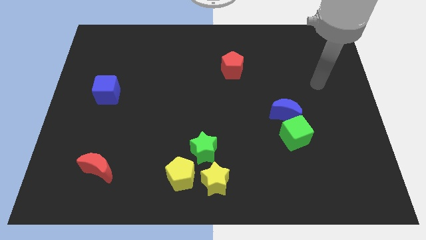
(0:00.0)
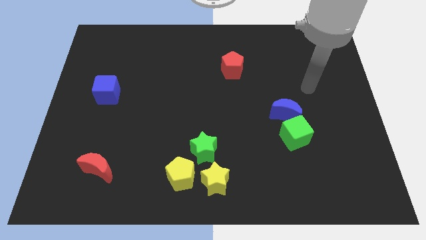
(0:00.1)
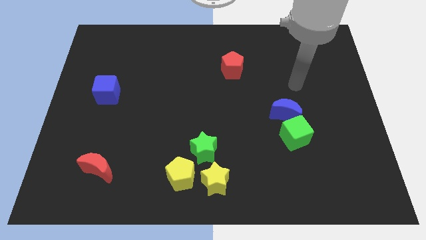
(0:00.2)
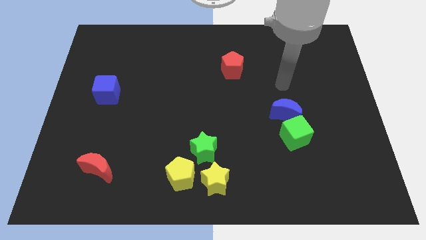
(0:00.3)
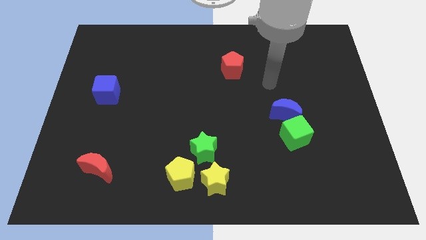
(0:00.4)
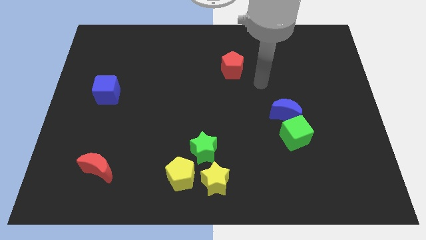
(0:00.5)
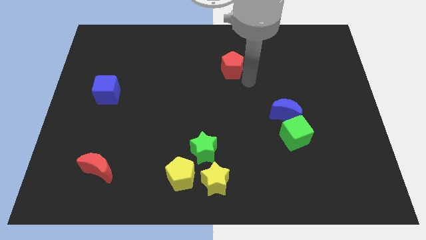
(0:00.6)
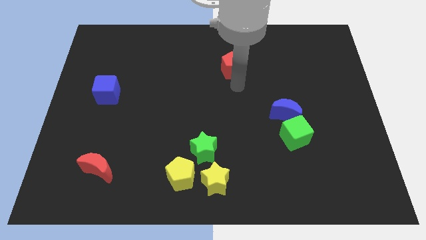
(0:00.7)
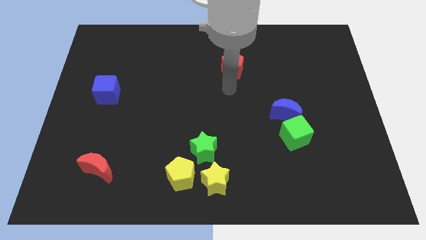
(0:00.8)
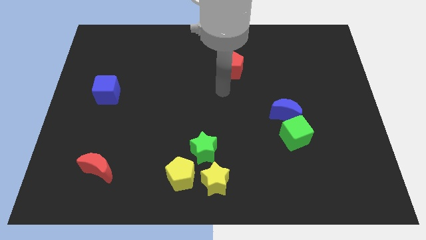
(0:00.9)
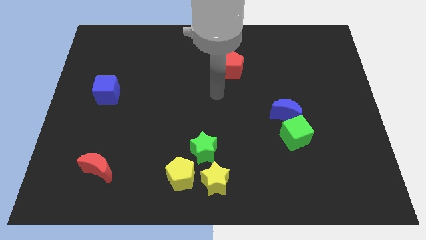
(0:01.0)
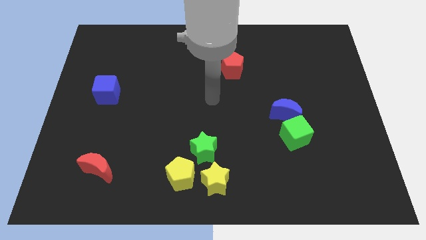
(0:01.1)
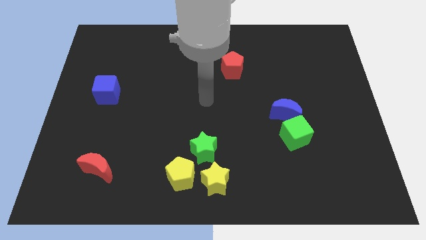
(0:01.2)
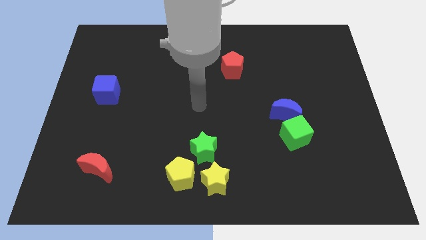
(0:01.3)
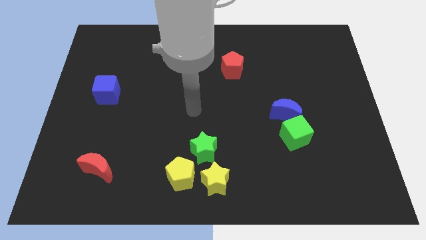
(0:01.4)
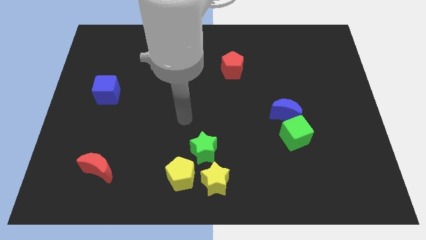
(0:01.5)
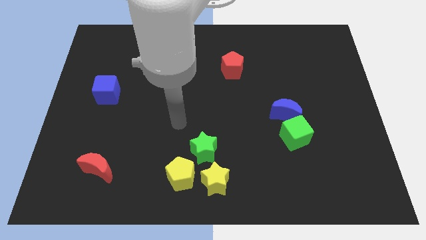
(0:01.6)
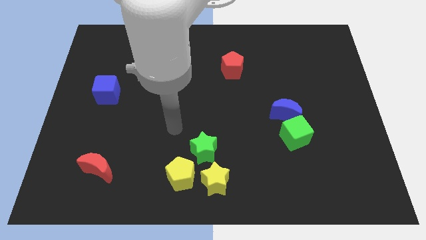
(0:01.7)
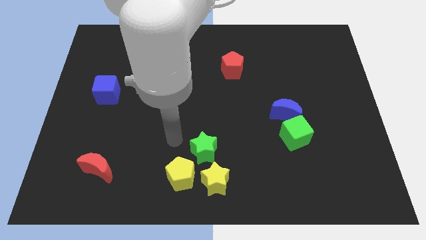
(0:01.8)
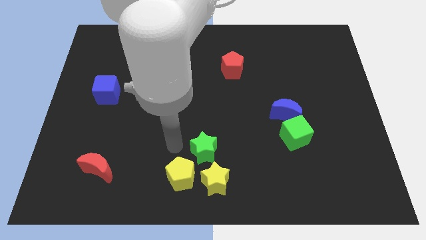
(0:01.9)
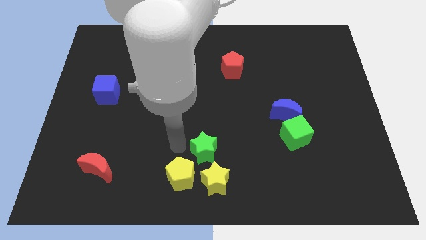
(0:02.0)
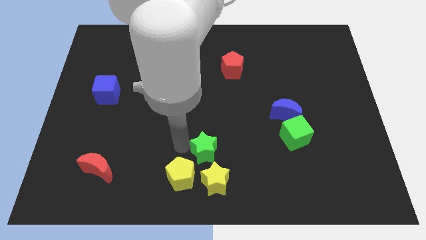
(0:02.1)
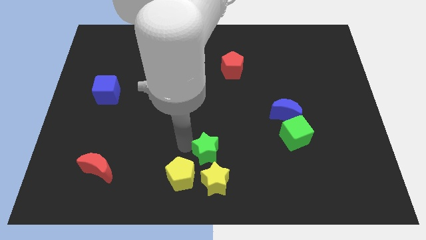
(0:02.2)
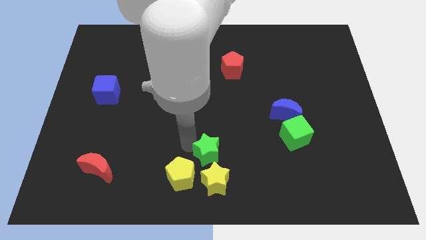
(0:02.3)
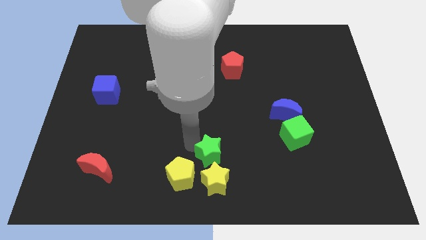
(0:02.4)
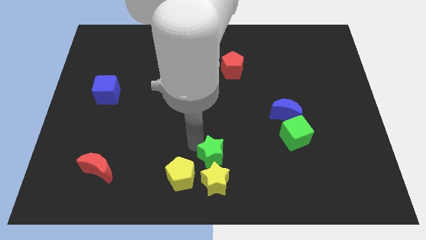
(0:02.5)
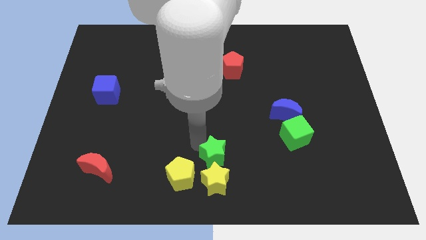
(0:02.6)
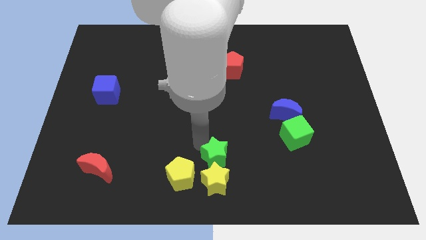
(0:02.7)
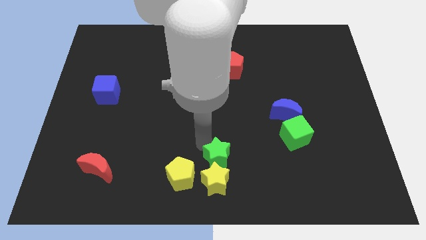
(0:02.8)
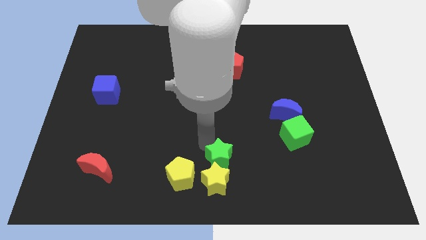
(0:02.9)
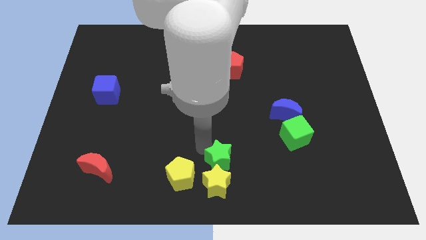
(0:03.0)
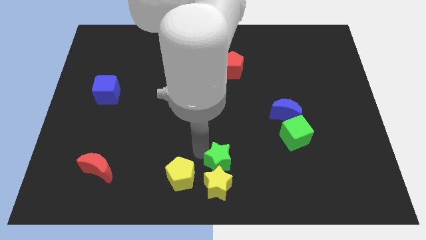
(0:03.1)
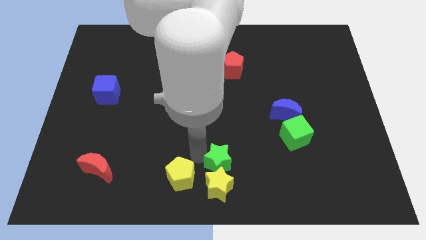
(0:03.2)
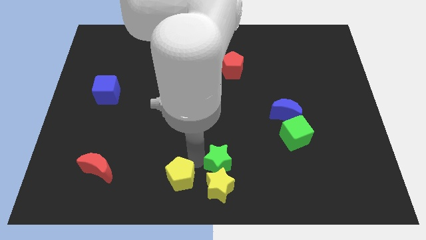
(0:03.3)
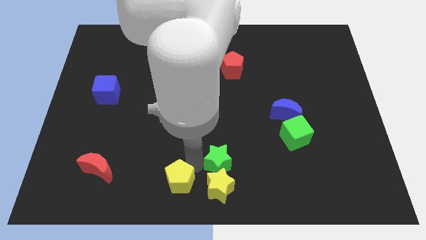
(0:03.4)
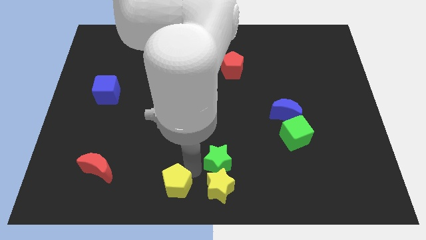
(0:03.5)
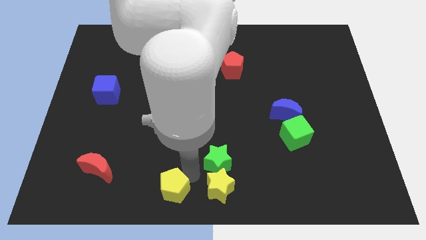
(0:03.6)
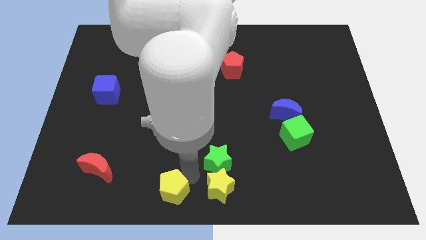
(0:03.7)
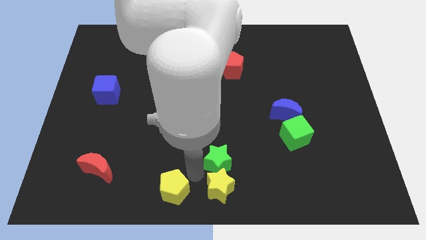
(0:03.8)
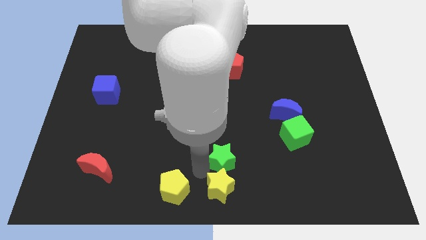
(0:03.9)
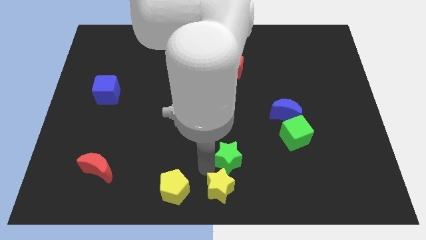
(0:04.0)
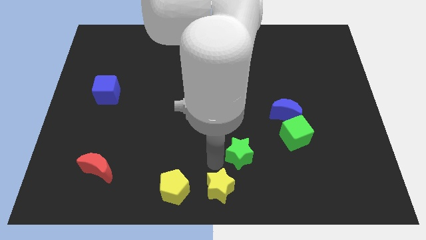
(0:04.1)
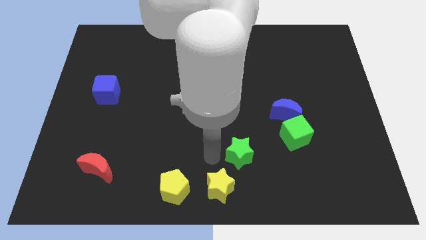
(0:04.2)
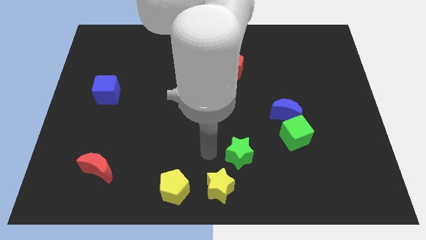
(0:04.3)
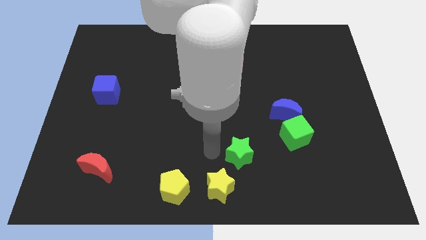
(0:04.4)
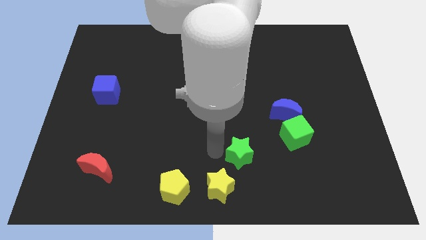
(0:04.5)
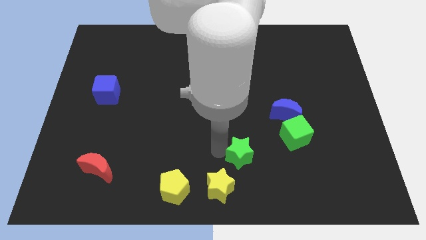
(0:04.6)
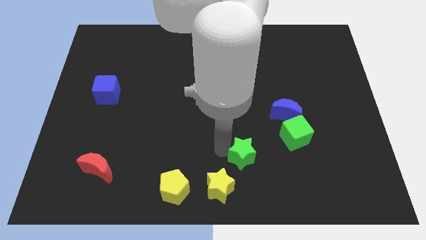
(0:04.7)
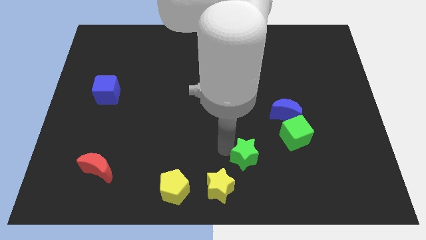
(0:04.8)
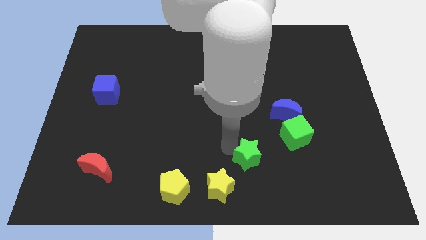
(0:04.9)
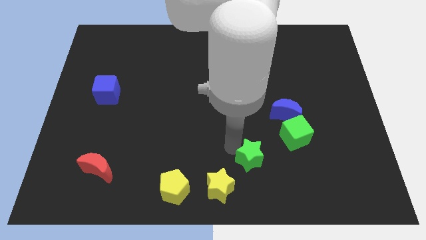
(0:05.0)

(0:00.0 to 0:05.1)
slide the green star diagonally down and to the left of the green cube

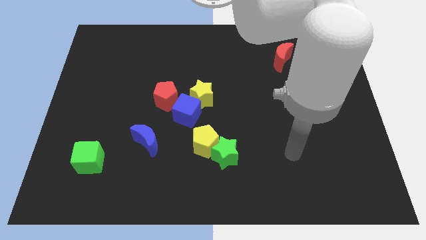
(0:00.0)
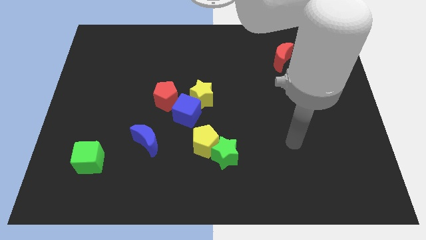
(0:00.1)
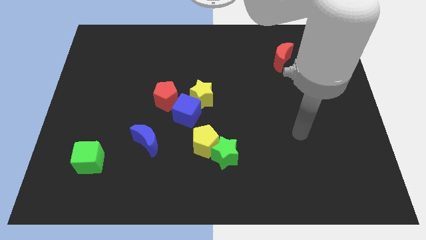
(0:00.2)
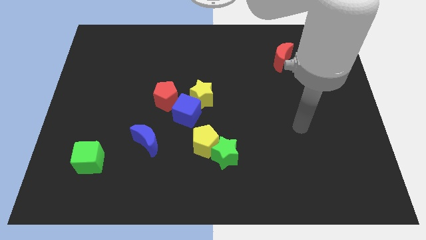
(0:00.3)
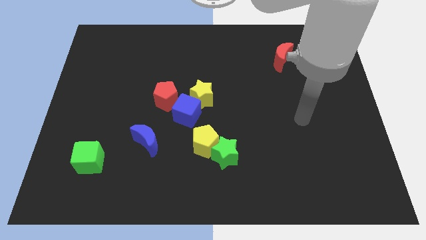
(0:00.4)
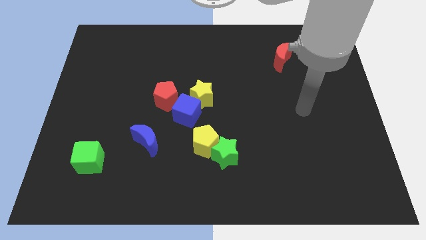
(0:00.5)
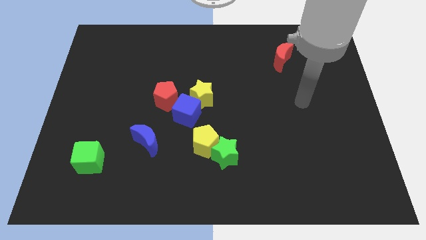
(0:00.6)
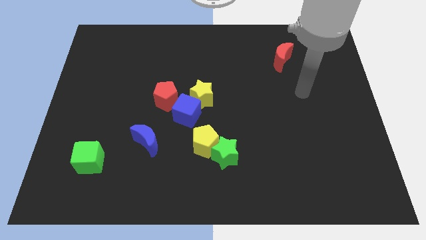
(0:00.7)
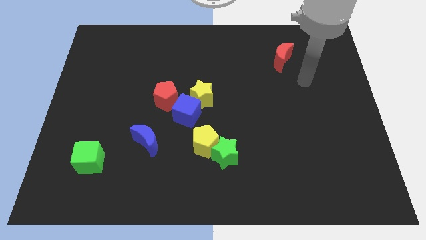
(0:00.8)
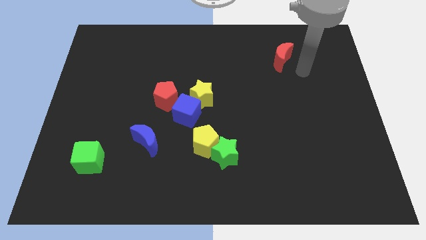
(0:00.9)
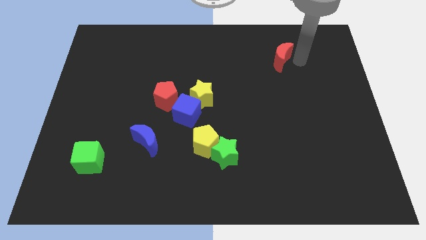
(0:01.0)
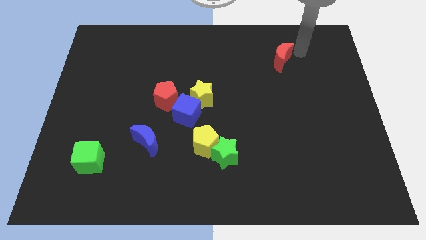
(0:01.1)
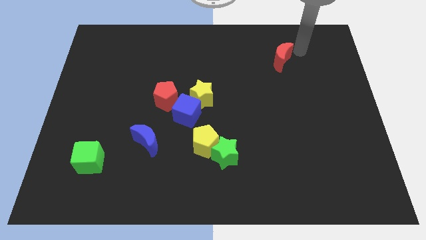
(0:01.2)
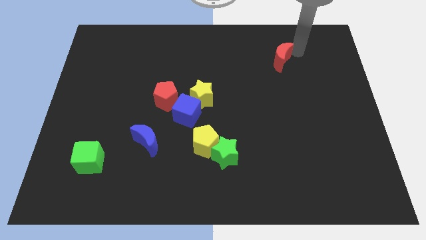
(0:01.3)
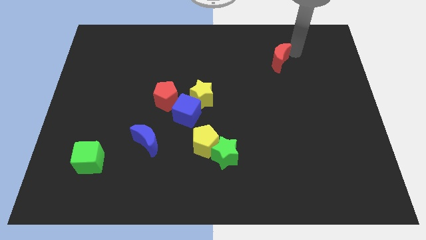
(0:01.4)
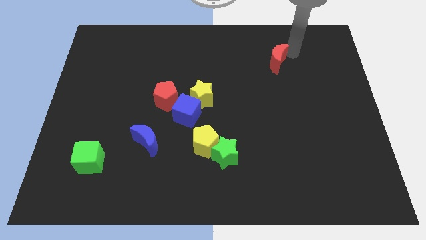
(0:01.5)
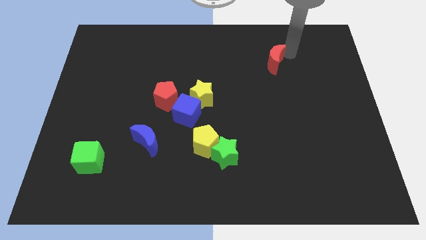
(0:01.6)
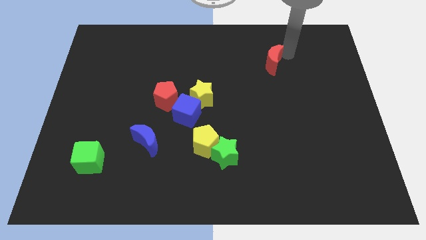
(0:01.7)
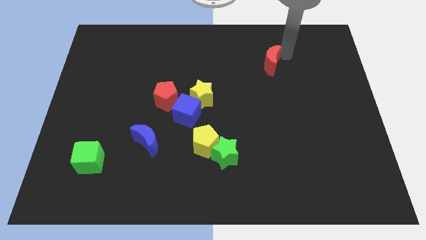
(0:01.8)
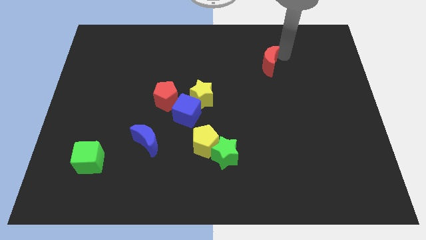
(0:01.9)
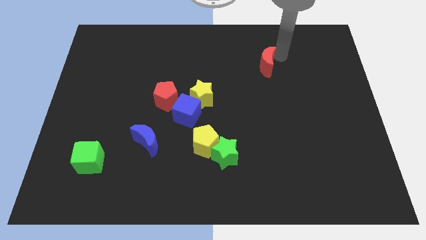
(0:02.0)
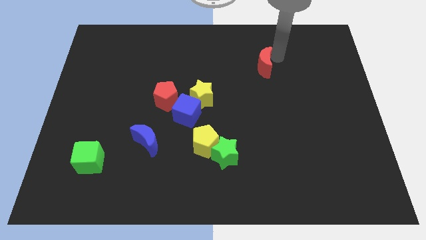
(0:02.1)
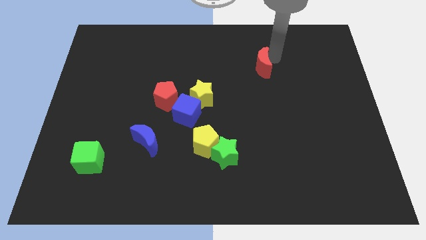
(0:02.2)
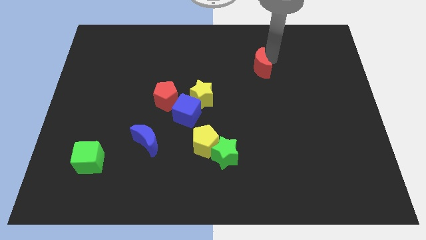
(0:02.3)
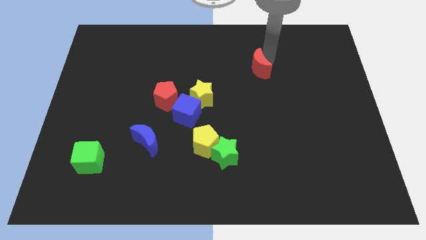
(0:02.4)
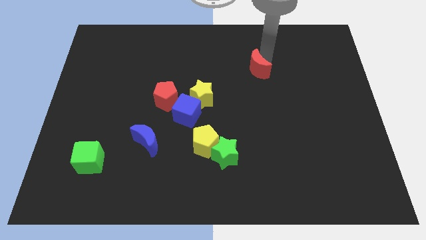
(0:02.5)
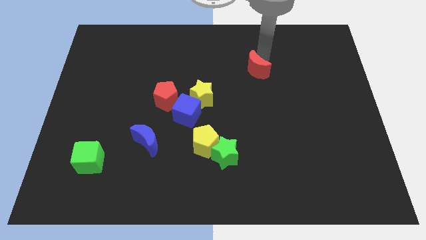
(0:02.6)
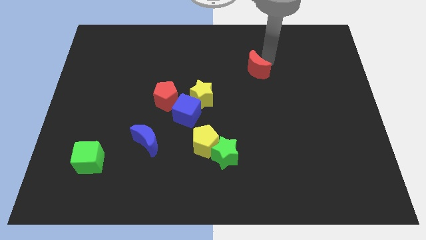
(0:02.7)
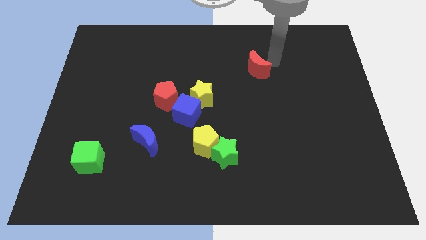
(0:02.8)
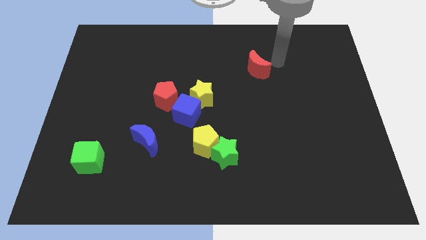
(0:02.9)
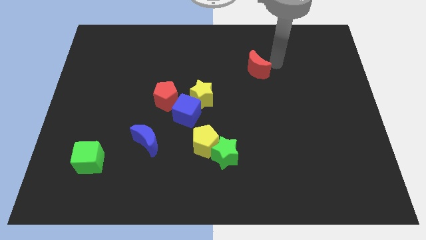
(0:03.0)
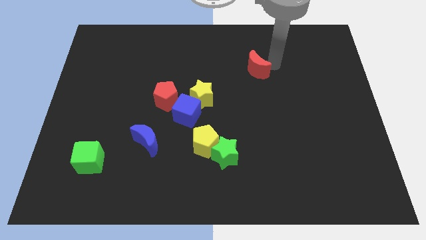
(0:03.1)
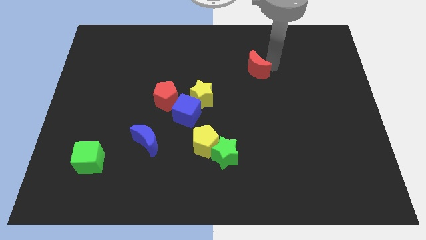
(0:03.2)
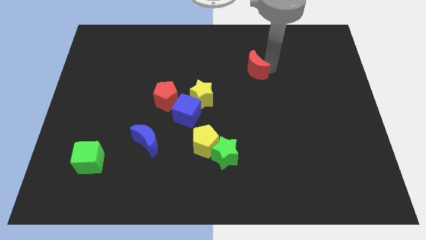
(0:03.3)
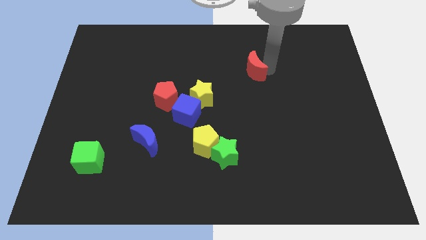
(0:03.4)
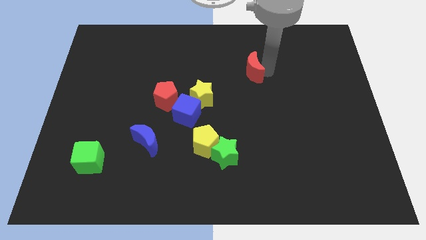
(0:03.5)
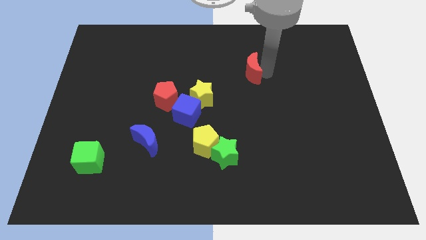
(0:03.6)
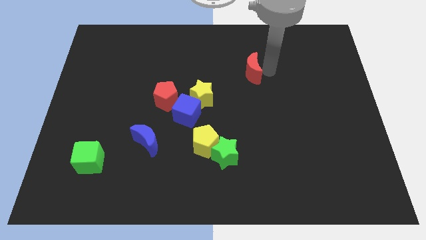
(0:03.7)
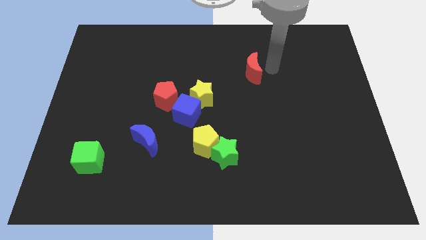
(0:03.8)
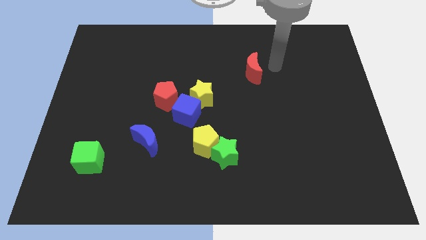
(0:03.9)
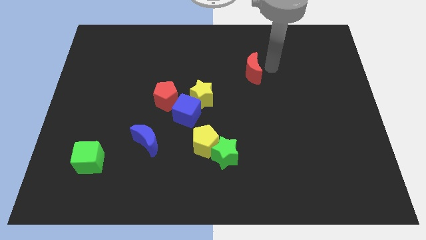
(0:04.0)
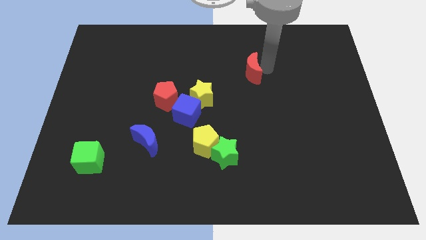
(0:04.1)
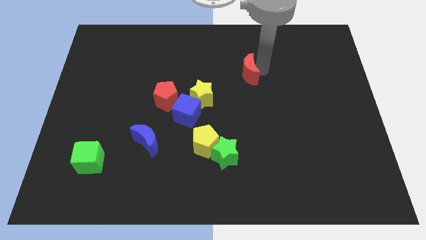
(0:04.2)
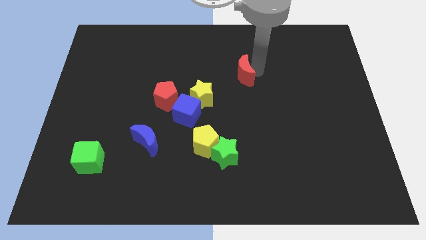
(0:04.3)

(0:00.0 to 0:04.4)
put the red moon diagonally up and to the right of the yellow star
